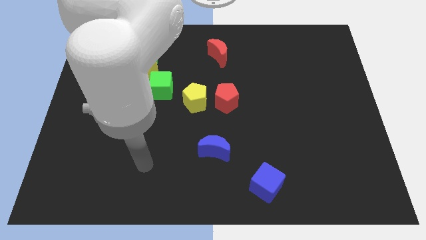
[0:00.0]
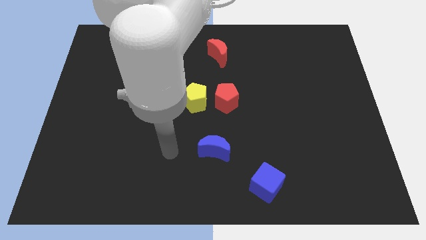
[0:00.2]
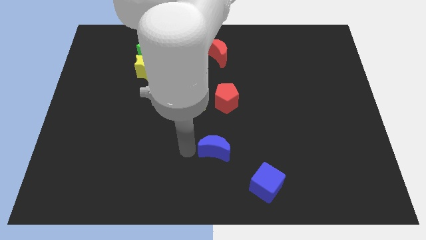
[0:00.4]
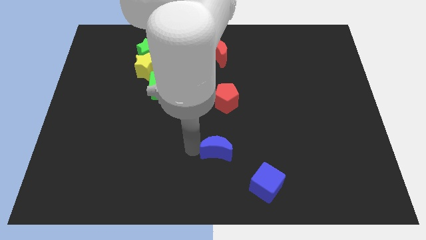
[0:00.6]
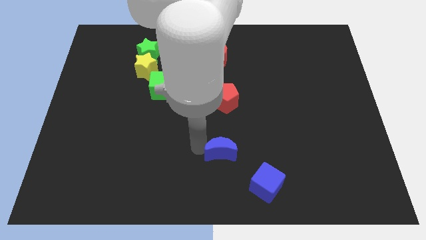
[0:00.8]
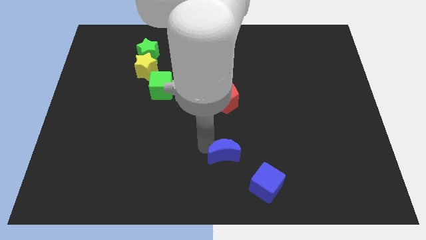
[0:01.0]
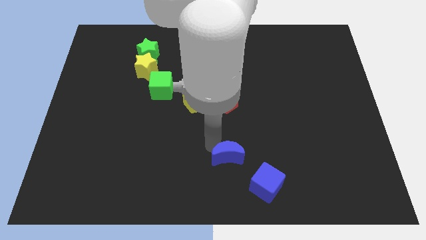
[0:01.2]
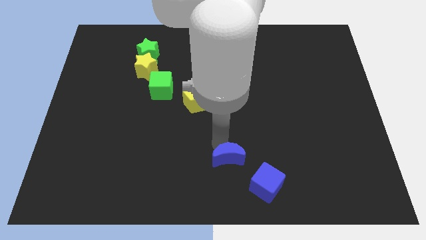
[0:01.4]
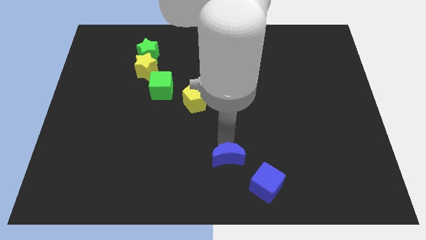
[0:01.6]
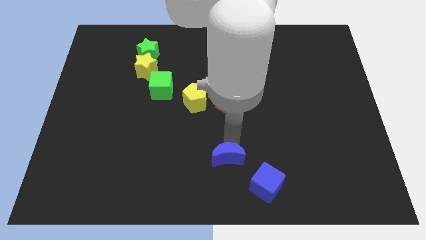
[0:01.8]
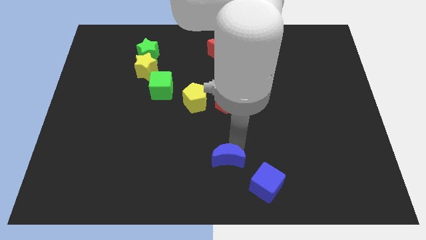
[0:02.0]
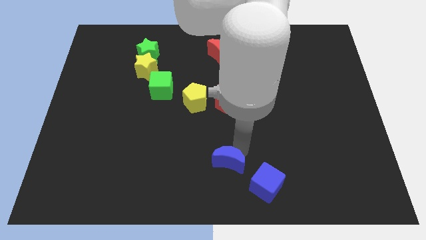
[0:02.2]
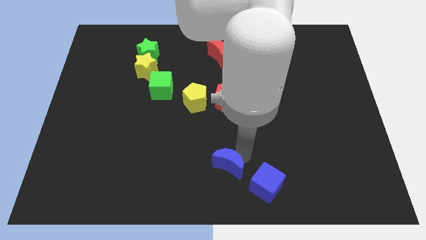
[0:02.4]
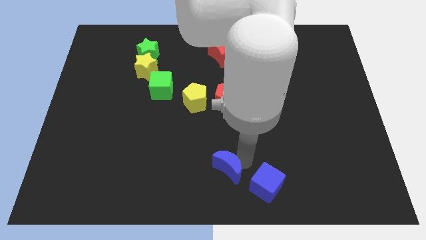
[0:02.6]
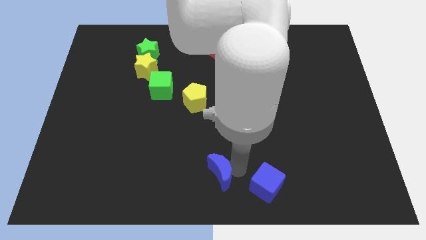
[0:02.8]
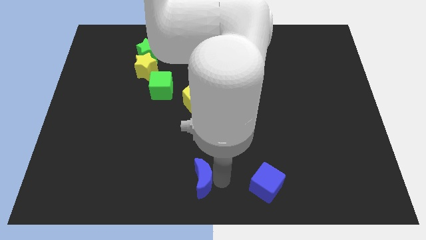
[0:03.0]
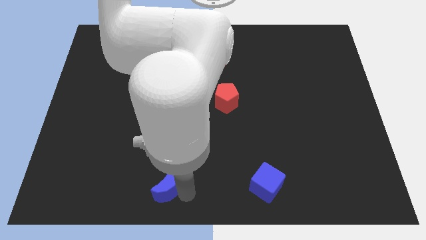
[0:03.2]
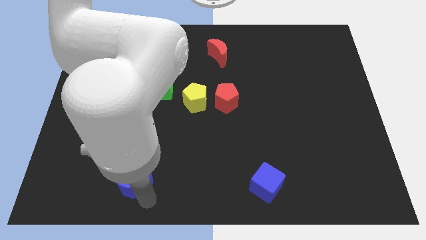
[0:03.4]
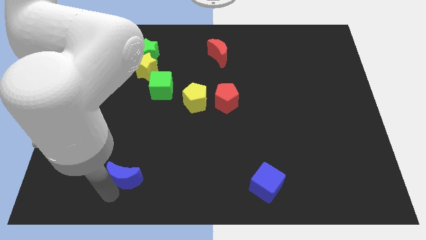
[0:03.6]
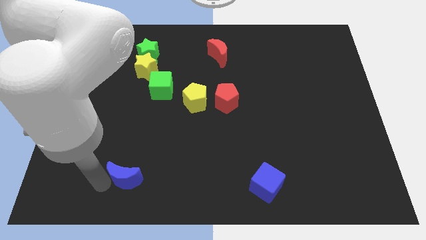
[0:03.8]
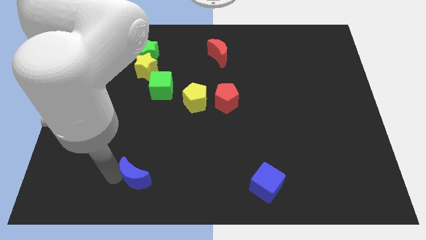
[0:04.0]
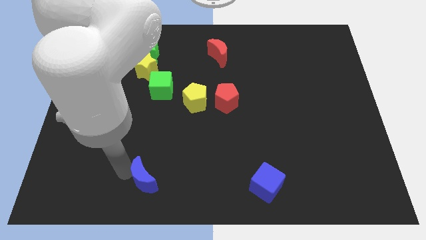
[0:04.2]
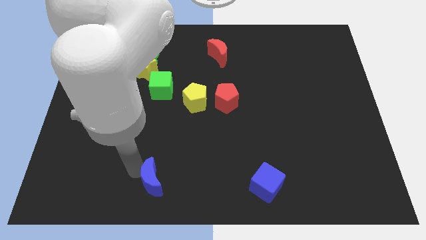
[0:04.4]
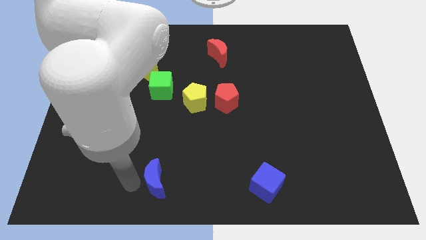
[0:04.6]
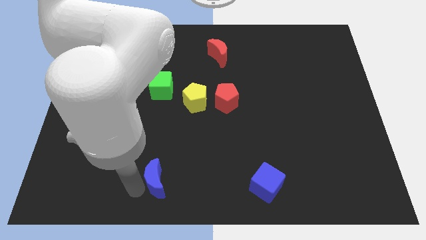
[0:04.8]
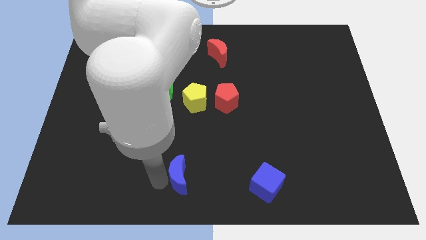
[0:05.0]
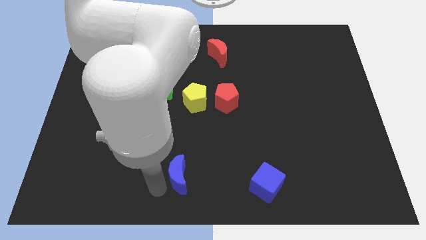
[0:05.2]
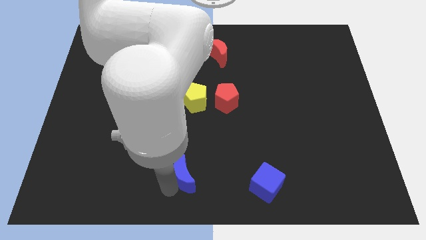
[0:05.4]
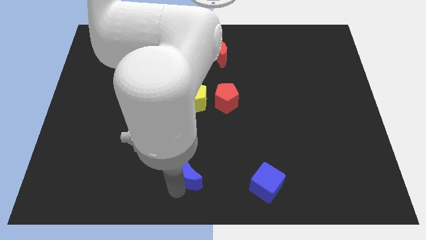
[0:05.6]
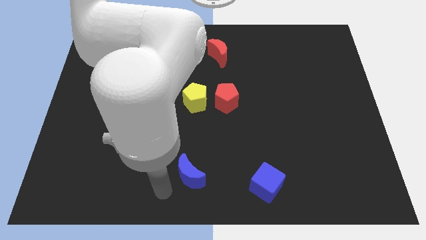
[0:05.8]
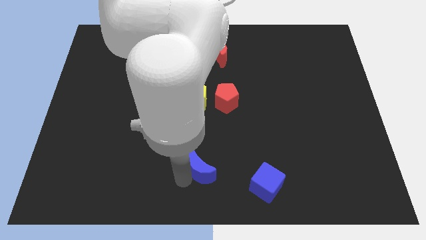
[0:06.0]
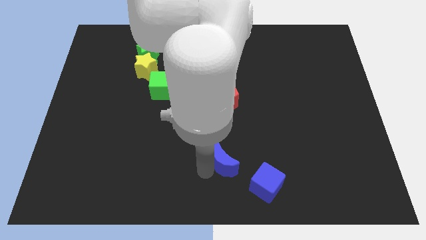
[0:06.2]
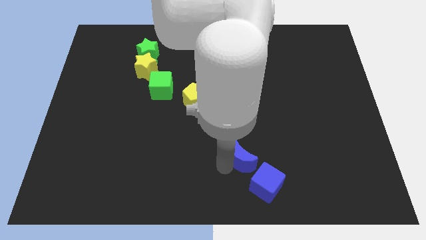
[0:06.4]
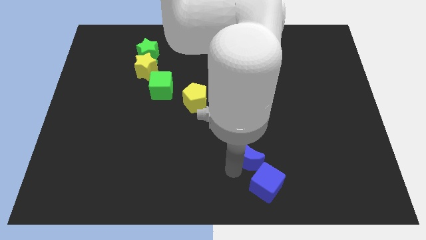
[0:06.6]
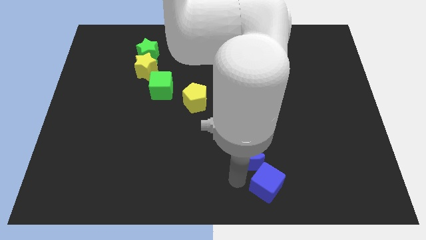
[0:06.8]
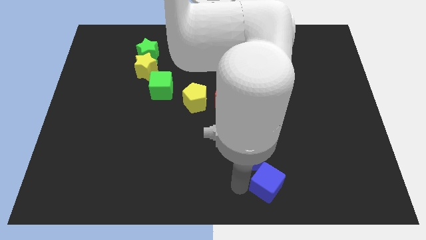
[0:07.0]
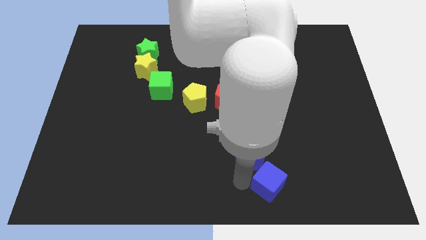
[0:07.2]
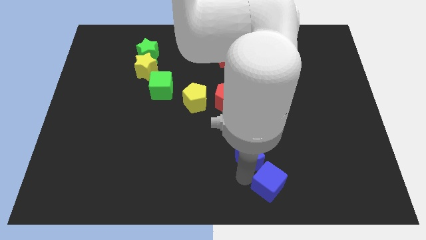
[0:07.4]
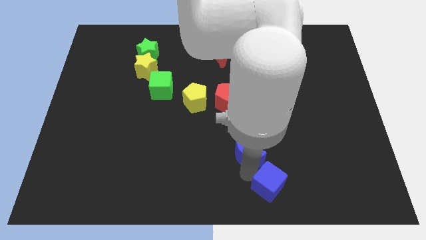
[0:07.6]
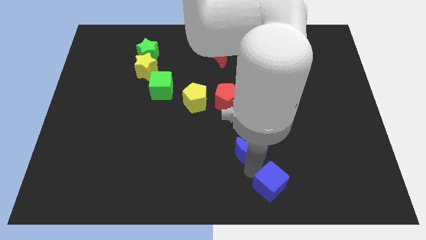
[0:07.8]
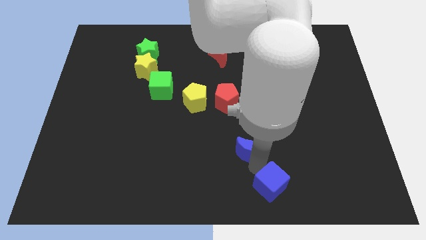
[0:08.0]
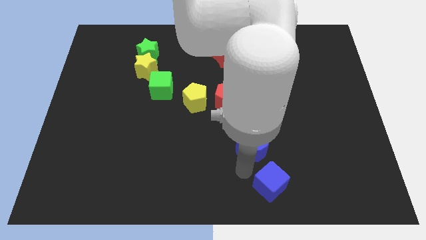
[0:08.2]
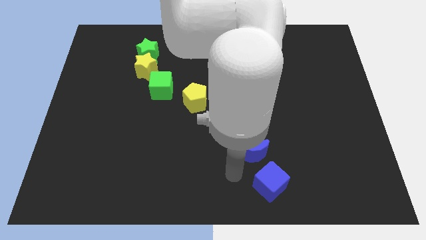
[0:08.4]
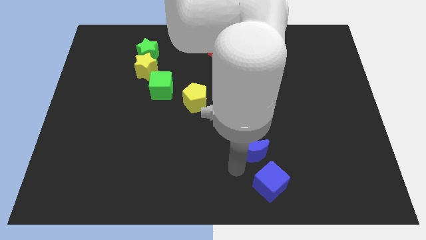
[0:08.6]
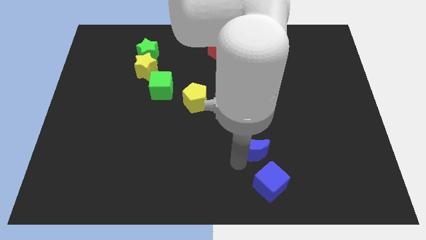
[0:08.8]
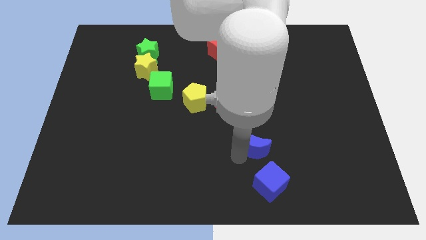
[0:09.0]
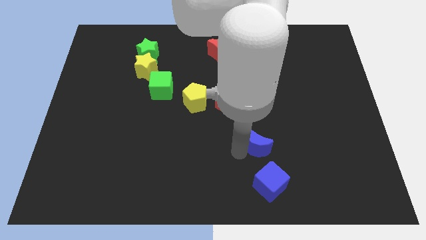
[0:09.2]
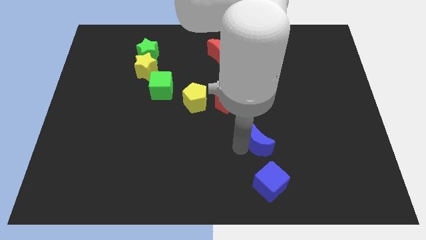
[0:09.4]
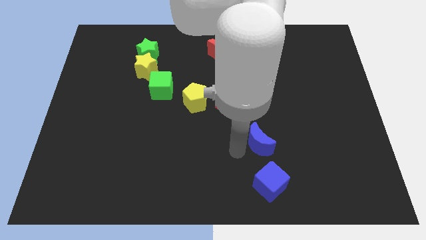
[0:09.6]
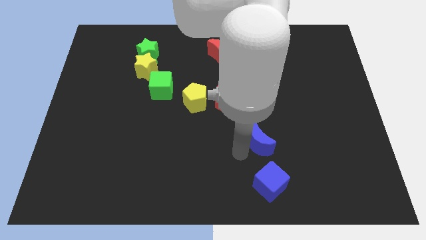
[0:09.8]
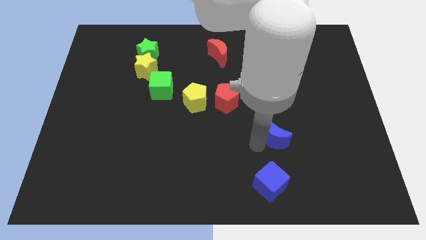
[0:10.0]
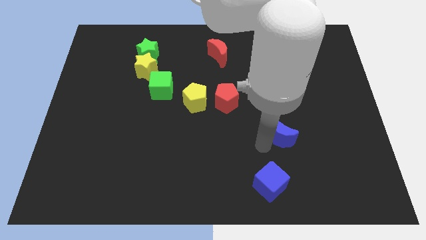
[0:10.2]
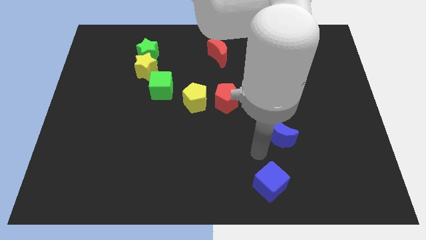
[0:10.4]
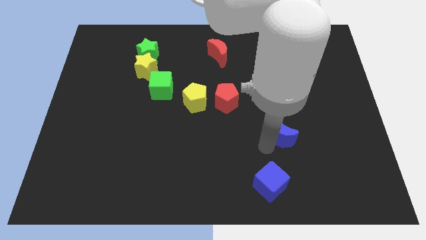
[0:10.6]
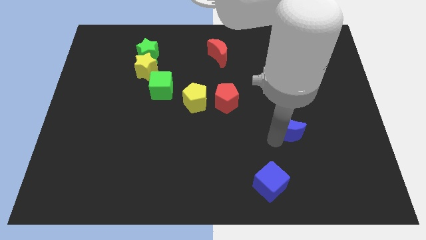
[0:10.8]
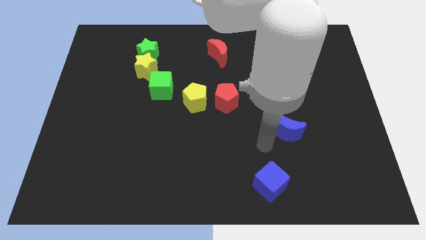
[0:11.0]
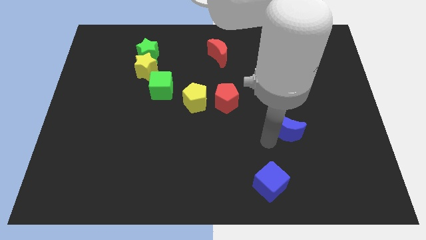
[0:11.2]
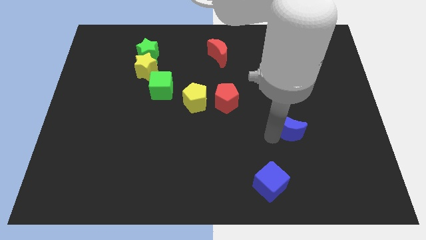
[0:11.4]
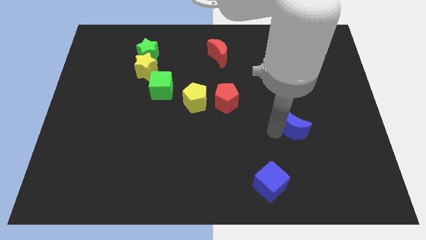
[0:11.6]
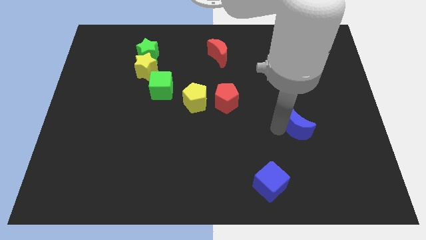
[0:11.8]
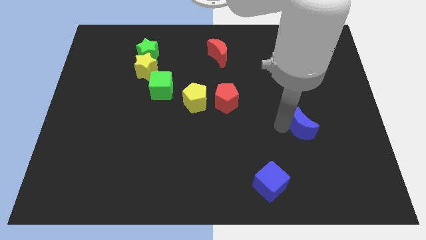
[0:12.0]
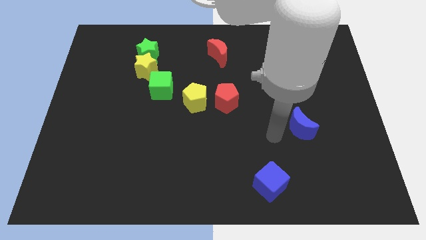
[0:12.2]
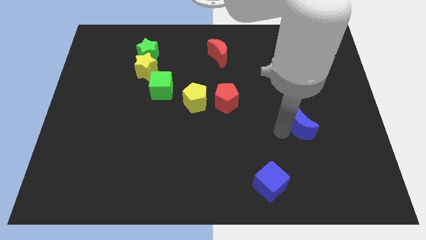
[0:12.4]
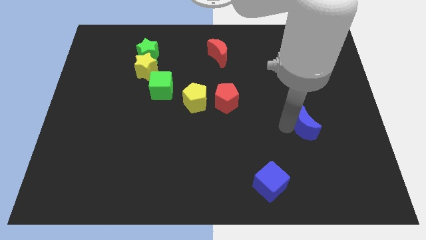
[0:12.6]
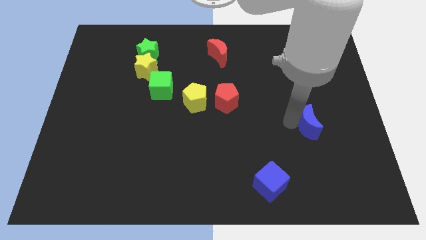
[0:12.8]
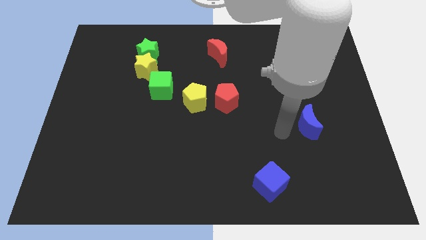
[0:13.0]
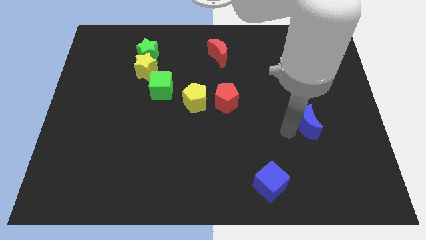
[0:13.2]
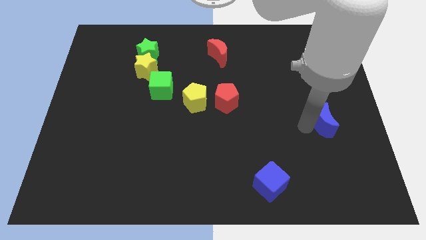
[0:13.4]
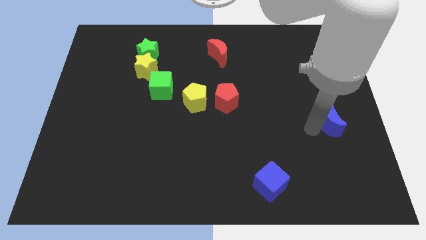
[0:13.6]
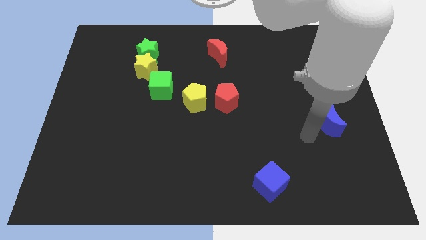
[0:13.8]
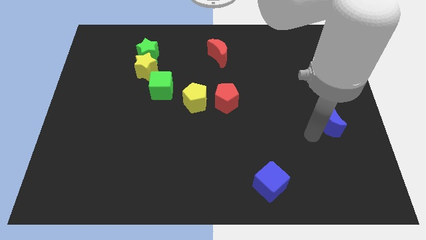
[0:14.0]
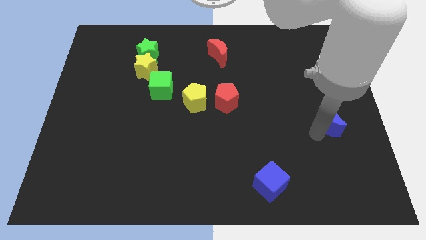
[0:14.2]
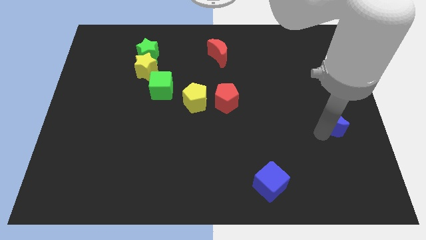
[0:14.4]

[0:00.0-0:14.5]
slide the blue moon to the center right
